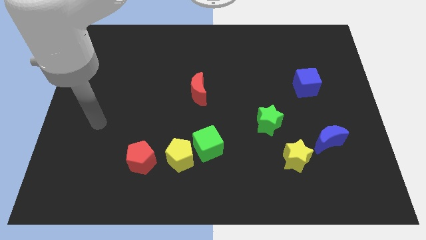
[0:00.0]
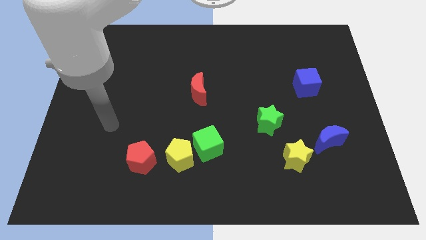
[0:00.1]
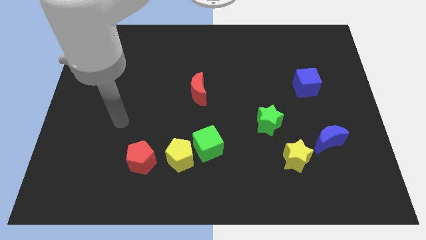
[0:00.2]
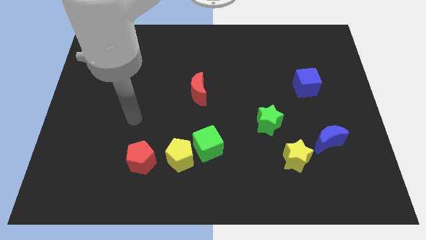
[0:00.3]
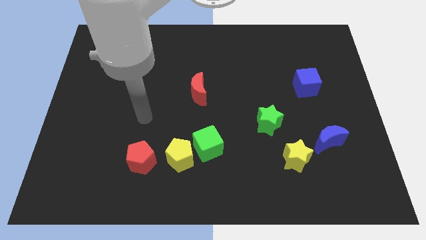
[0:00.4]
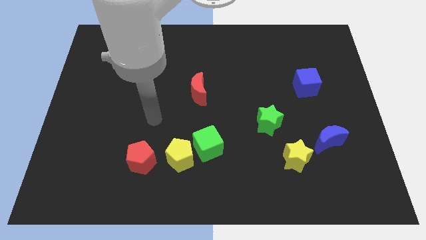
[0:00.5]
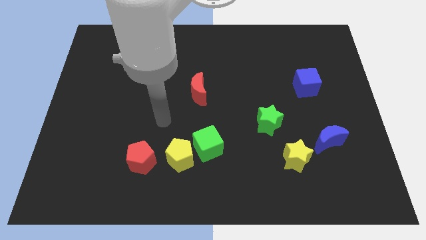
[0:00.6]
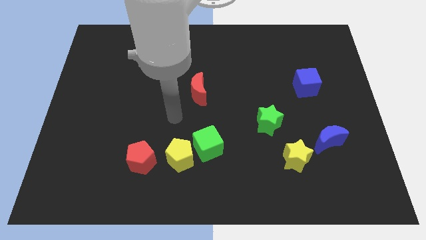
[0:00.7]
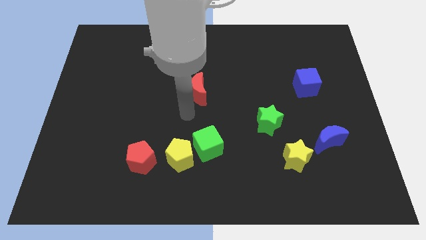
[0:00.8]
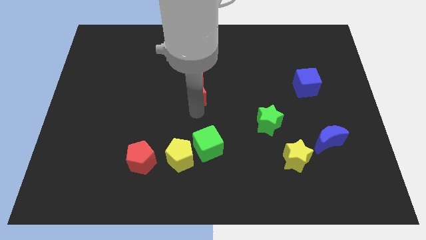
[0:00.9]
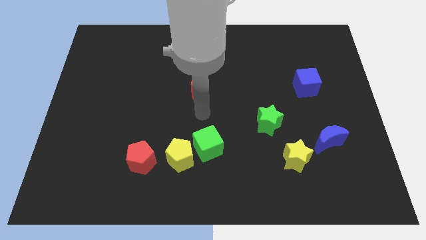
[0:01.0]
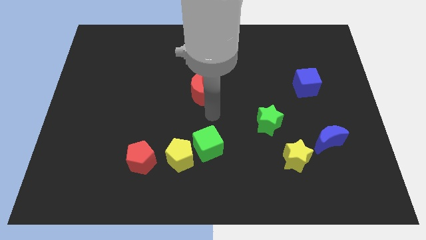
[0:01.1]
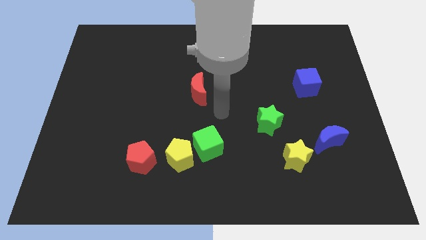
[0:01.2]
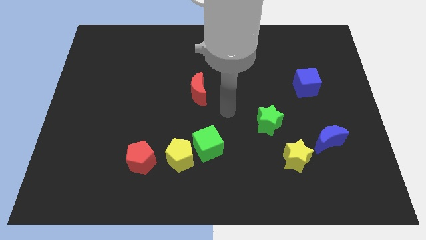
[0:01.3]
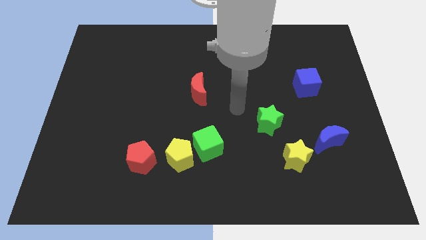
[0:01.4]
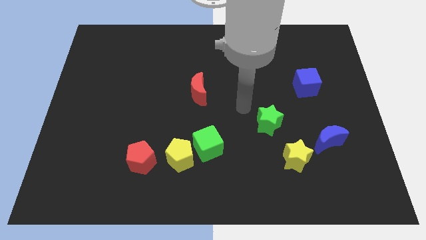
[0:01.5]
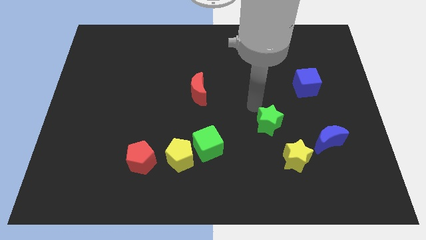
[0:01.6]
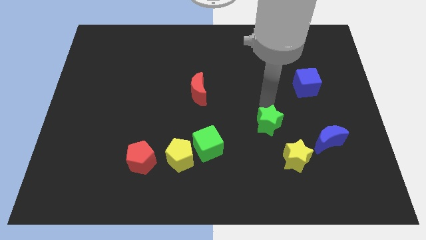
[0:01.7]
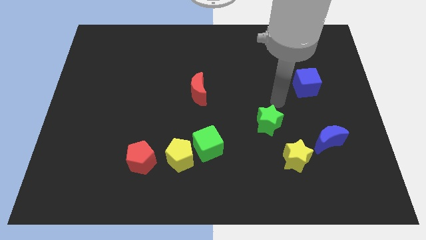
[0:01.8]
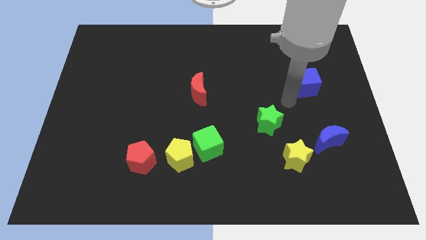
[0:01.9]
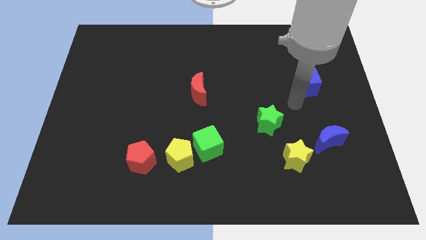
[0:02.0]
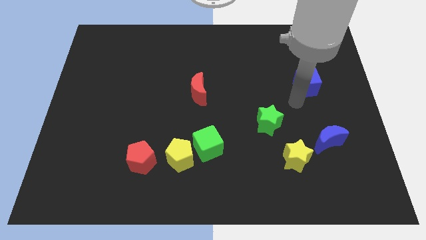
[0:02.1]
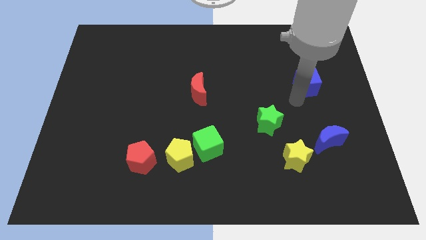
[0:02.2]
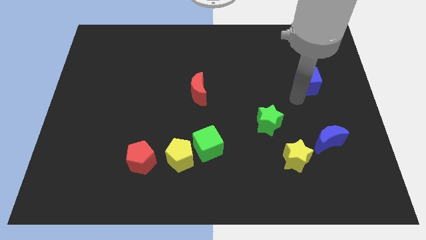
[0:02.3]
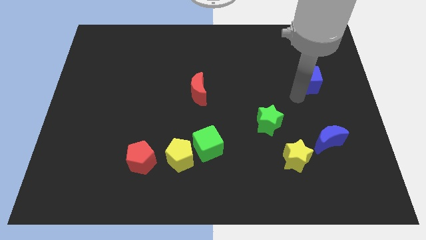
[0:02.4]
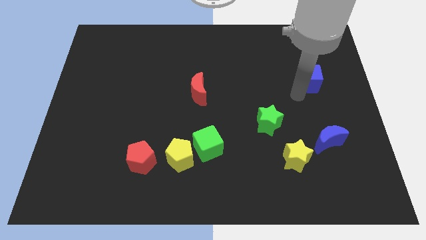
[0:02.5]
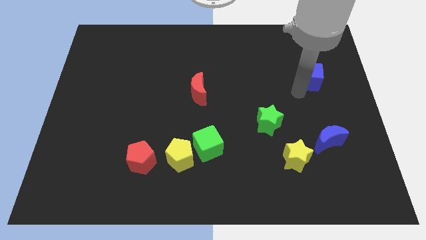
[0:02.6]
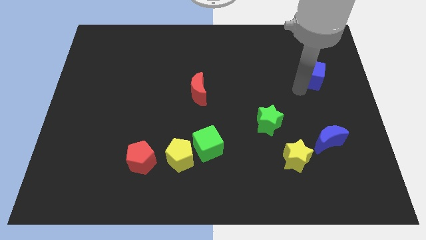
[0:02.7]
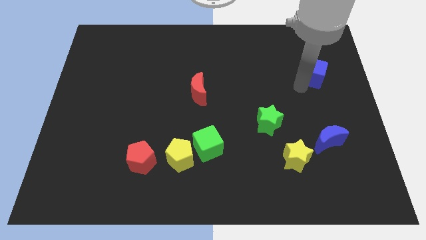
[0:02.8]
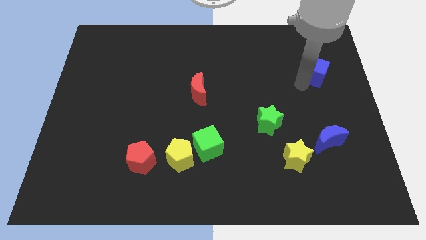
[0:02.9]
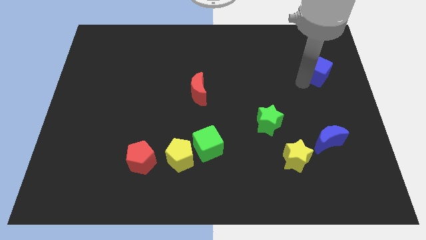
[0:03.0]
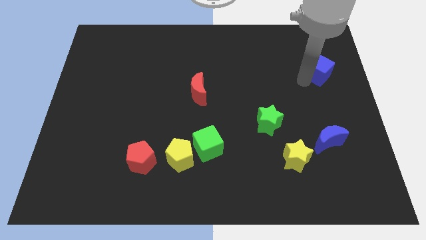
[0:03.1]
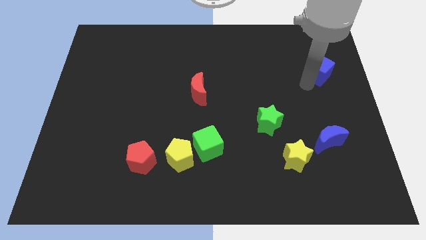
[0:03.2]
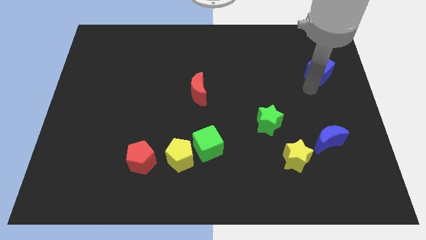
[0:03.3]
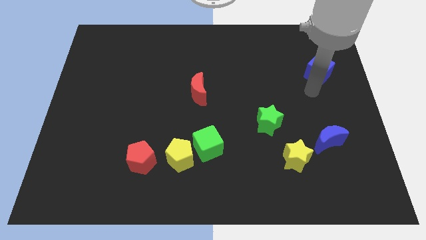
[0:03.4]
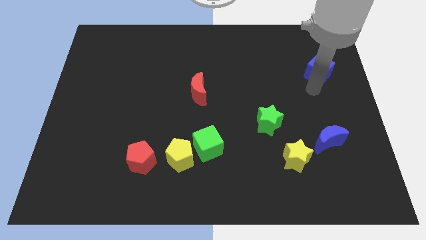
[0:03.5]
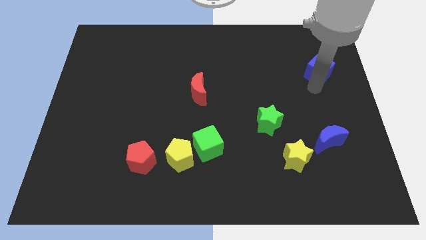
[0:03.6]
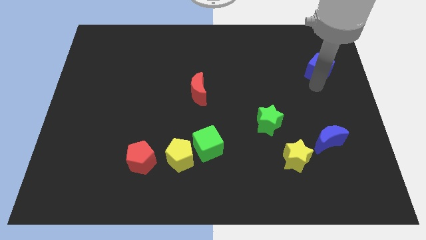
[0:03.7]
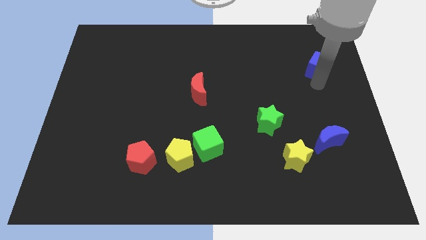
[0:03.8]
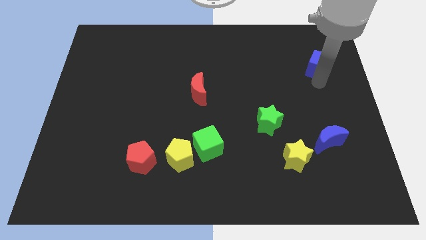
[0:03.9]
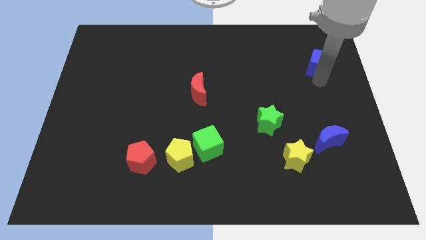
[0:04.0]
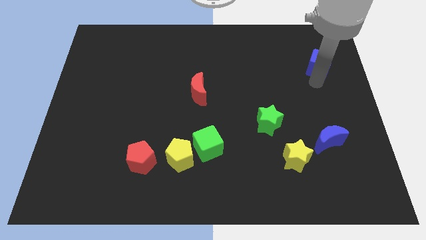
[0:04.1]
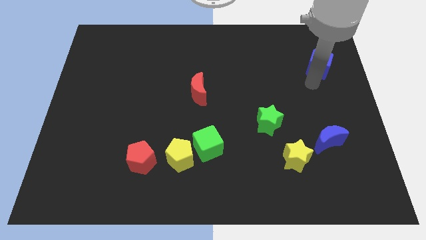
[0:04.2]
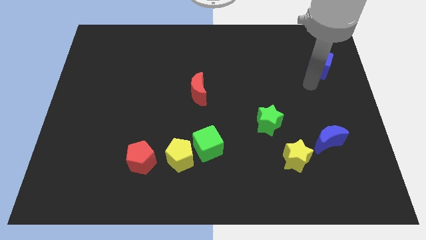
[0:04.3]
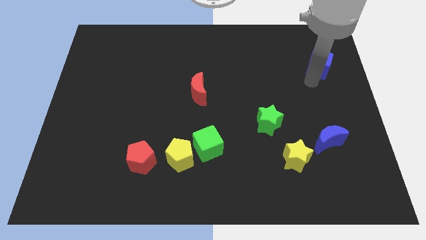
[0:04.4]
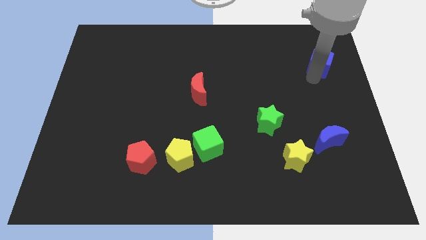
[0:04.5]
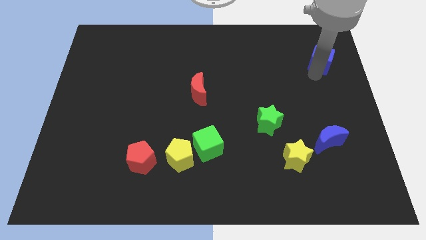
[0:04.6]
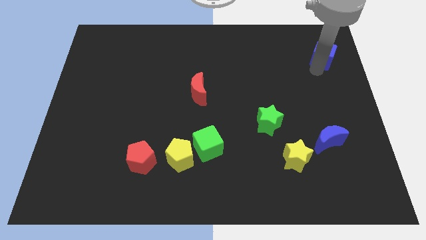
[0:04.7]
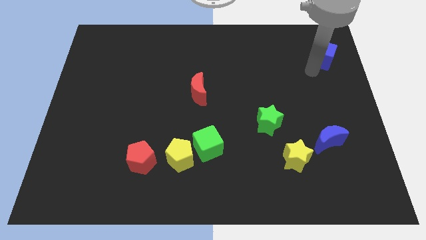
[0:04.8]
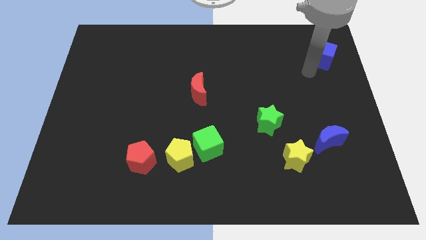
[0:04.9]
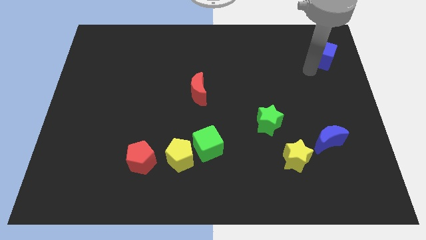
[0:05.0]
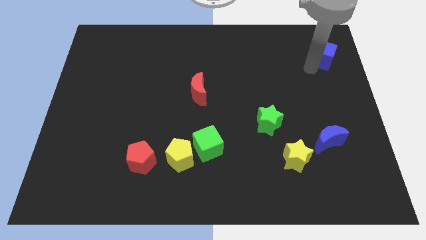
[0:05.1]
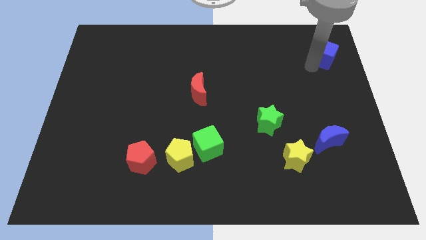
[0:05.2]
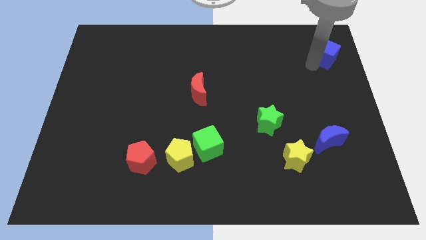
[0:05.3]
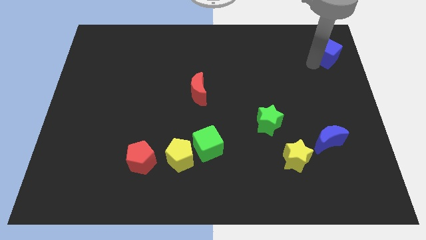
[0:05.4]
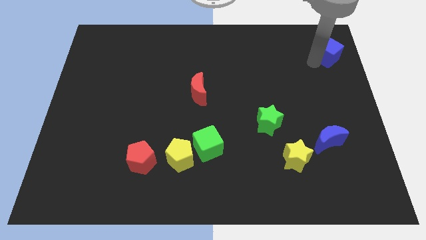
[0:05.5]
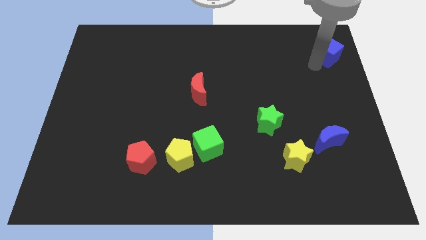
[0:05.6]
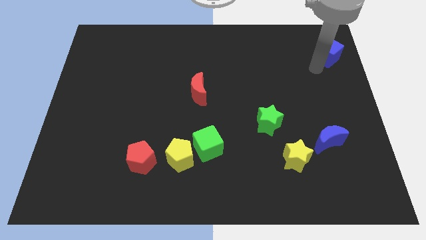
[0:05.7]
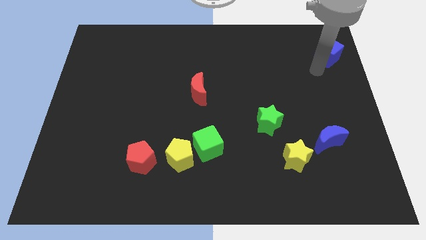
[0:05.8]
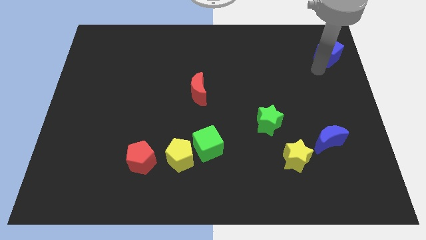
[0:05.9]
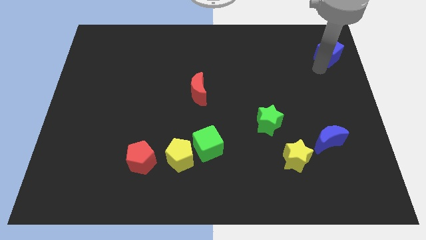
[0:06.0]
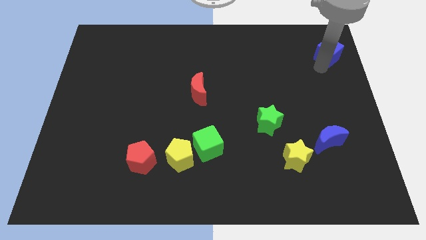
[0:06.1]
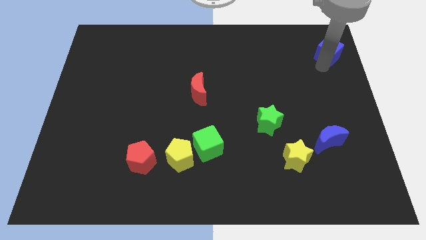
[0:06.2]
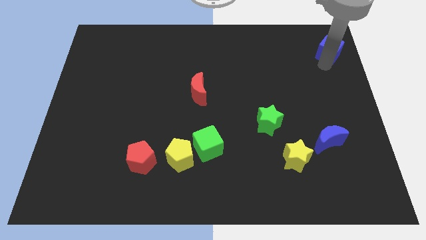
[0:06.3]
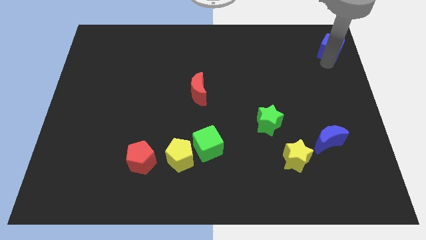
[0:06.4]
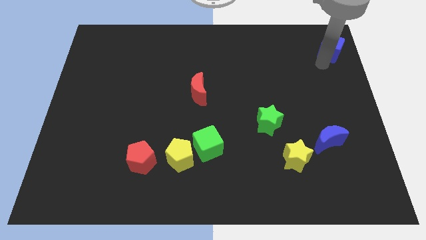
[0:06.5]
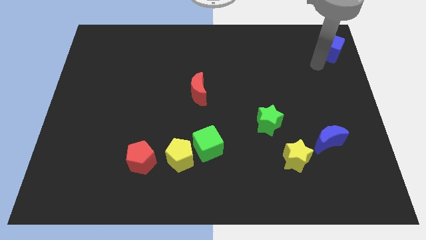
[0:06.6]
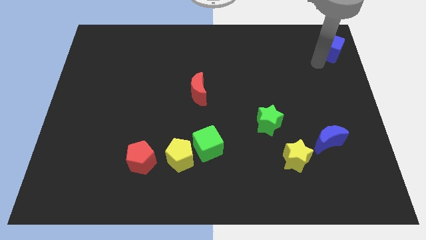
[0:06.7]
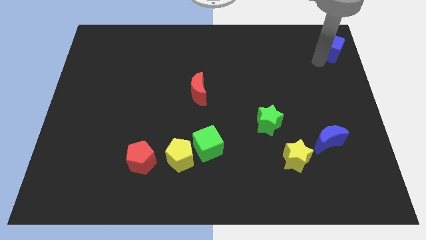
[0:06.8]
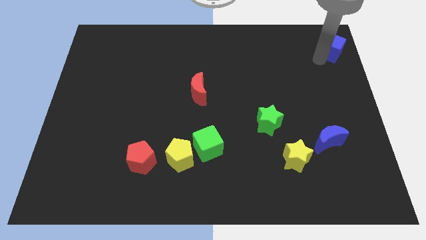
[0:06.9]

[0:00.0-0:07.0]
slide the blue cube to the top right

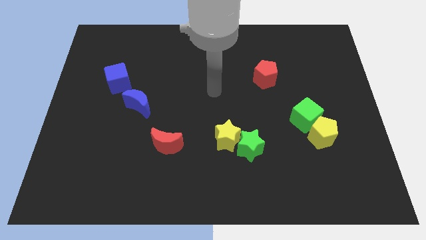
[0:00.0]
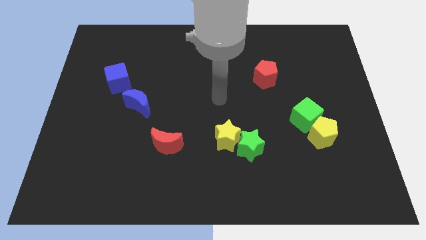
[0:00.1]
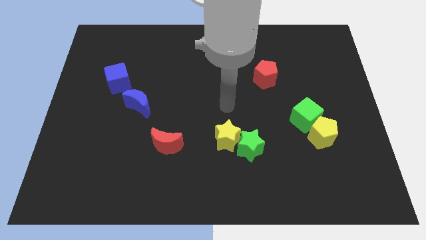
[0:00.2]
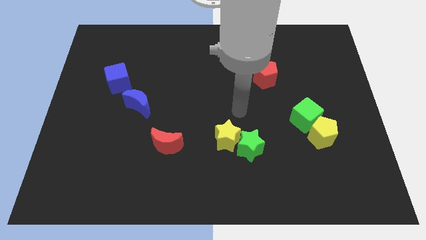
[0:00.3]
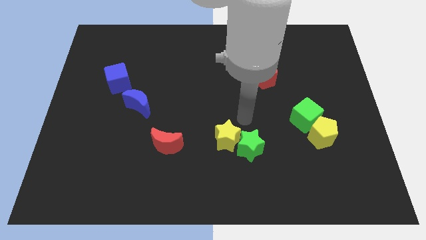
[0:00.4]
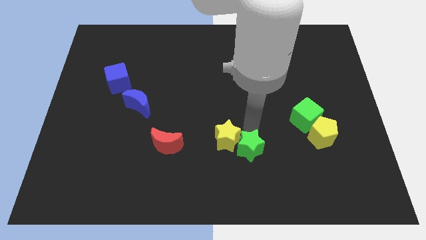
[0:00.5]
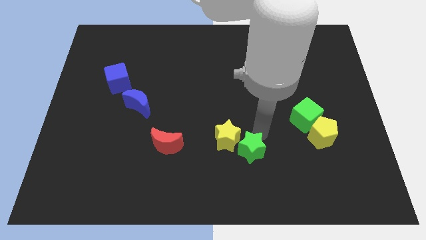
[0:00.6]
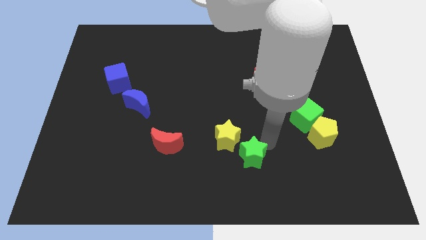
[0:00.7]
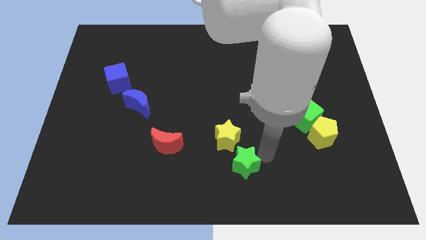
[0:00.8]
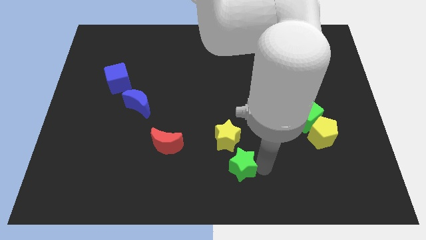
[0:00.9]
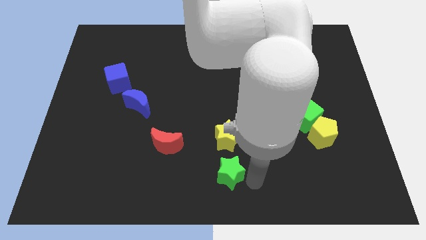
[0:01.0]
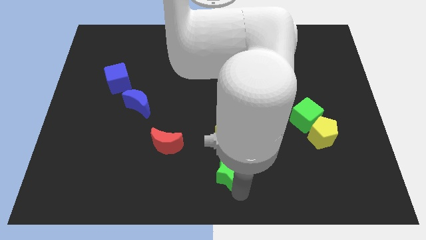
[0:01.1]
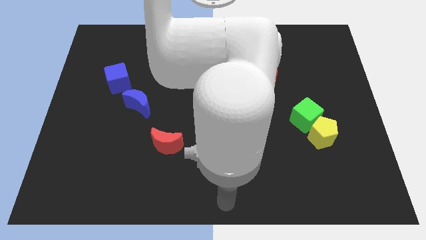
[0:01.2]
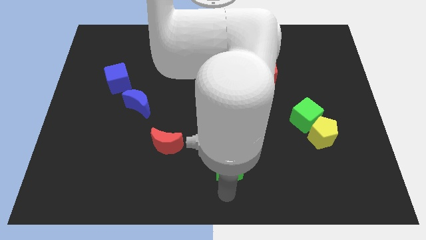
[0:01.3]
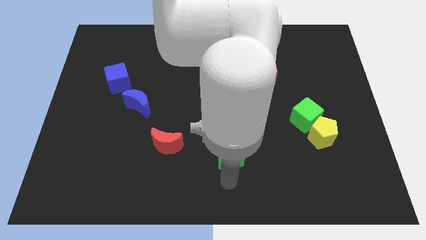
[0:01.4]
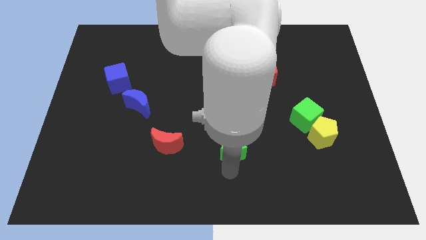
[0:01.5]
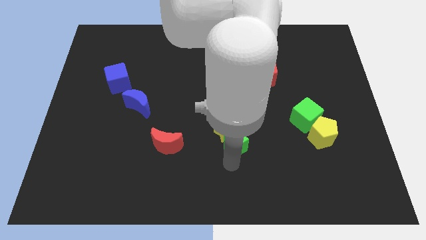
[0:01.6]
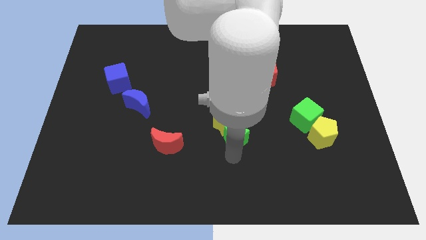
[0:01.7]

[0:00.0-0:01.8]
slide the green star to the middle
